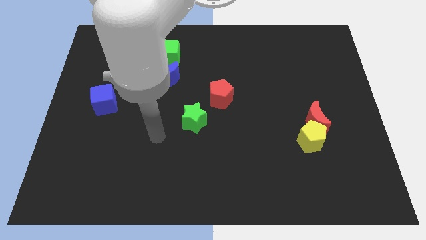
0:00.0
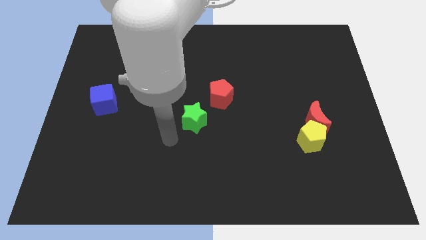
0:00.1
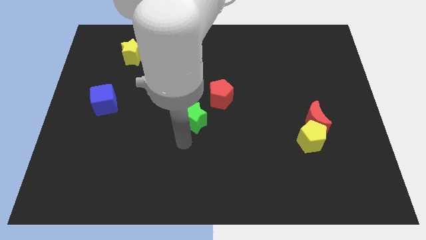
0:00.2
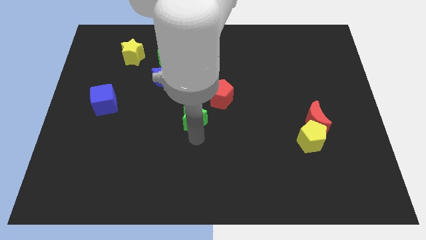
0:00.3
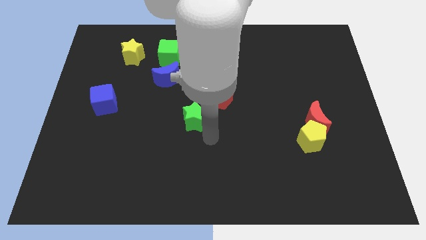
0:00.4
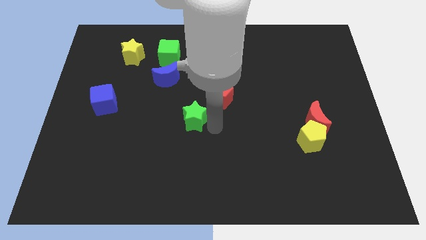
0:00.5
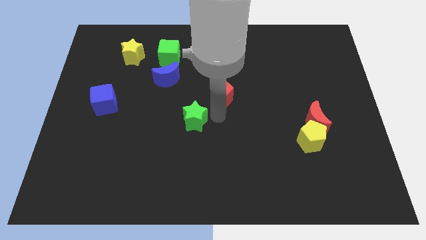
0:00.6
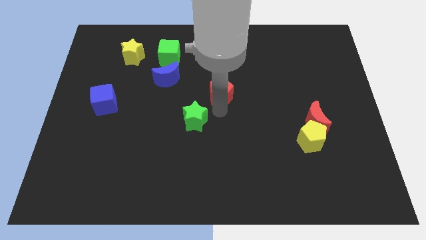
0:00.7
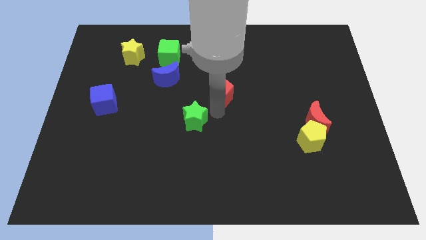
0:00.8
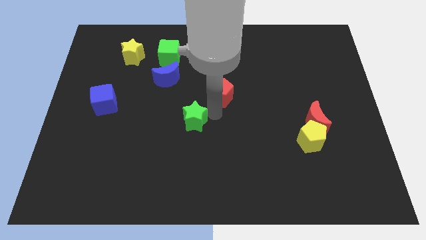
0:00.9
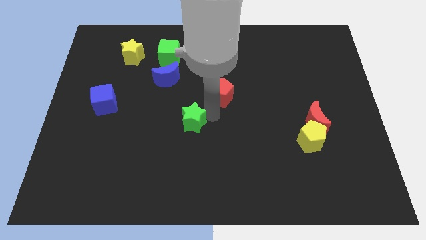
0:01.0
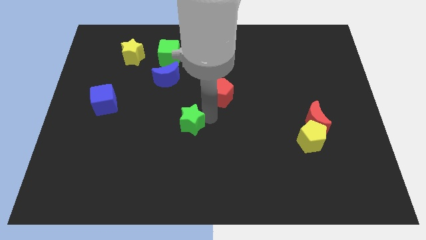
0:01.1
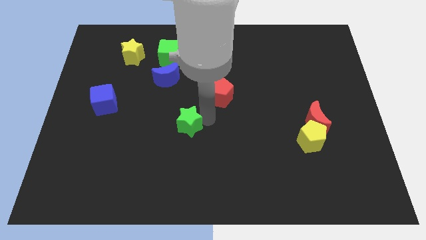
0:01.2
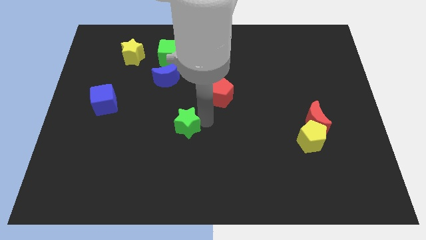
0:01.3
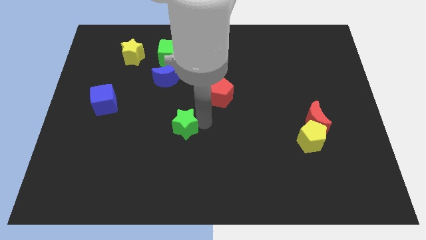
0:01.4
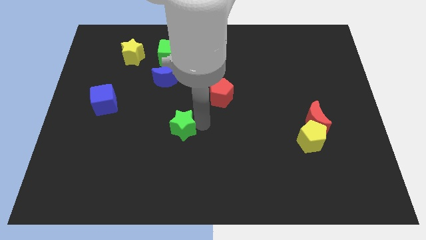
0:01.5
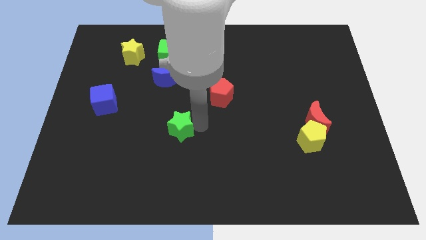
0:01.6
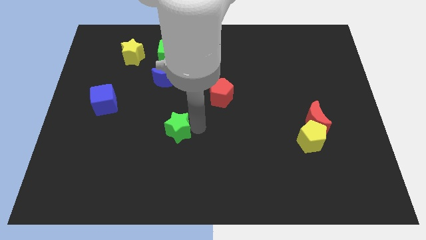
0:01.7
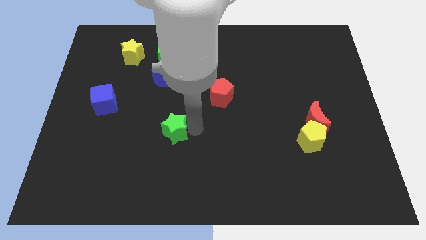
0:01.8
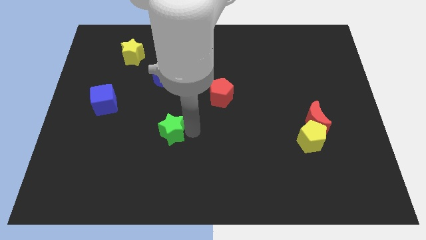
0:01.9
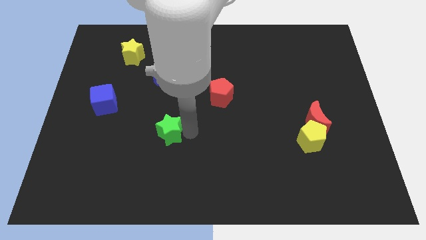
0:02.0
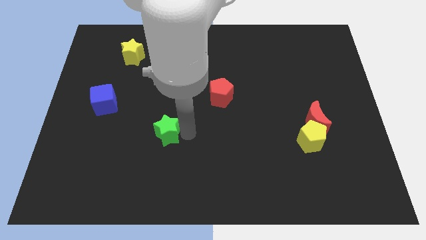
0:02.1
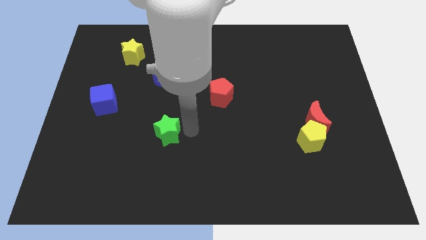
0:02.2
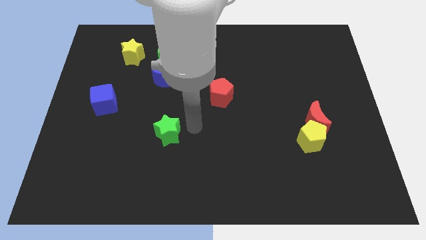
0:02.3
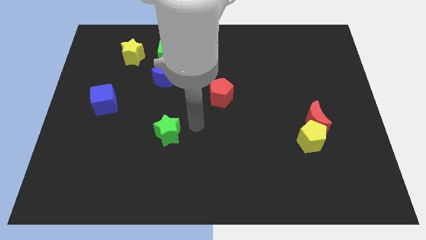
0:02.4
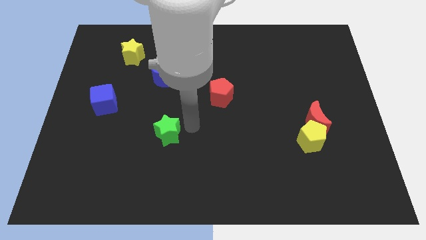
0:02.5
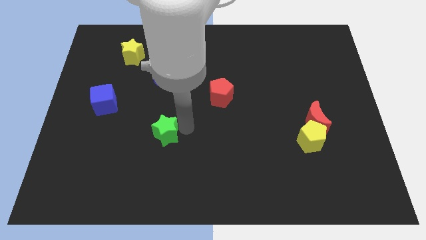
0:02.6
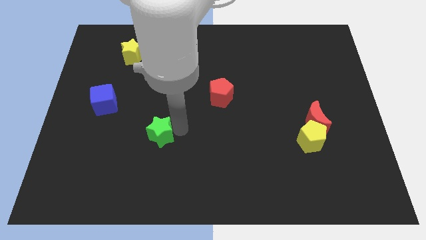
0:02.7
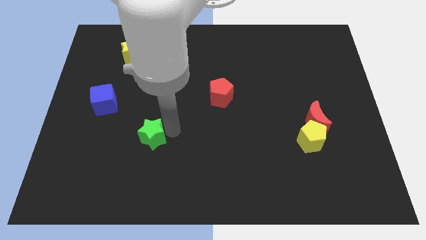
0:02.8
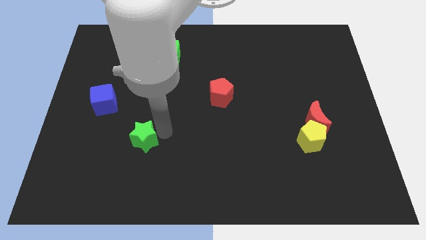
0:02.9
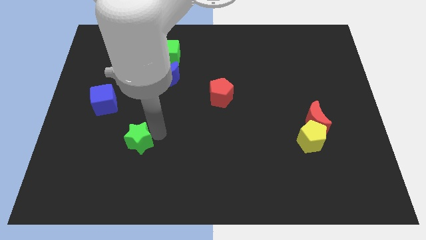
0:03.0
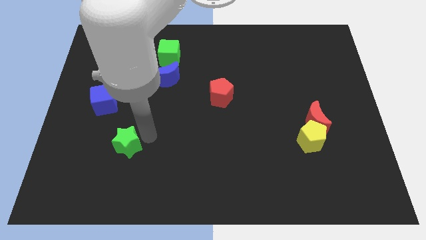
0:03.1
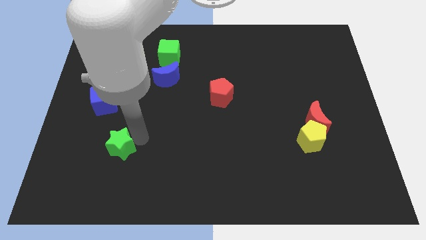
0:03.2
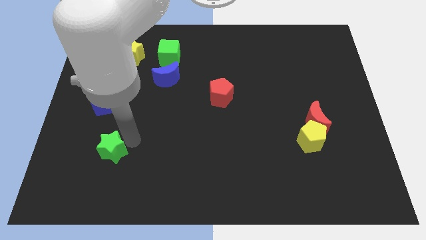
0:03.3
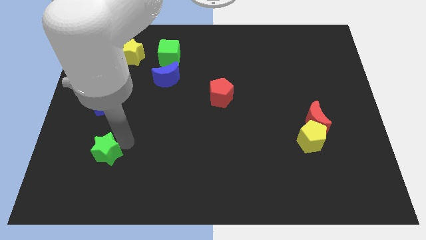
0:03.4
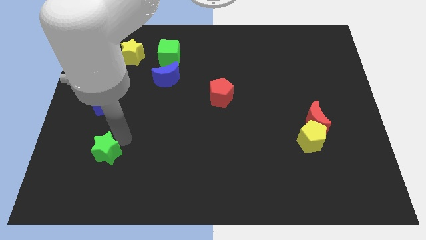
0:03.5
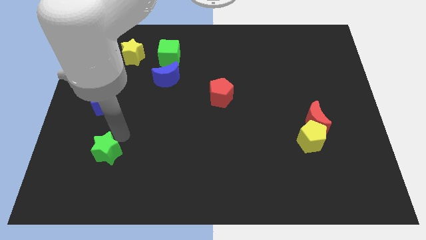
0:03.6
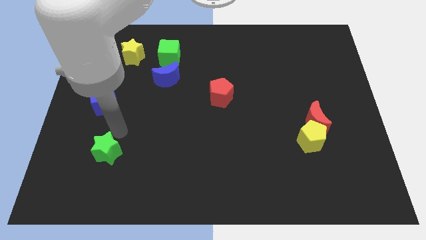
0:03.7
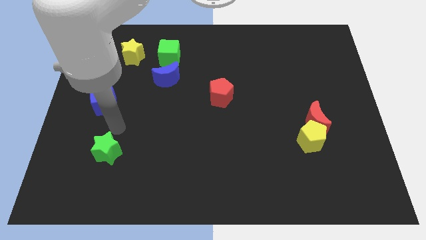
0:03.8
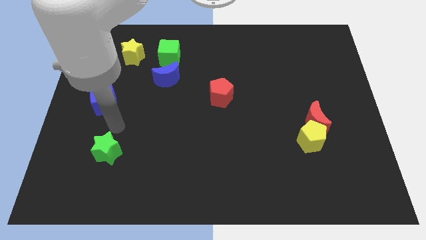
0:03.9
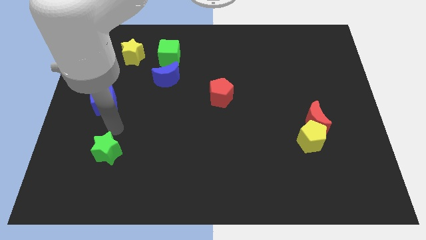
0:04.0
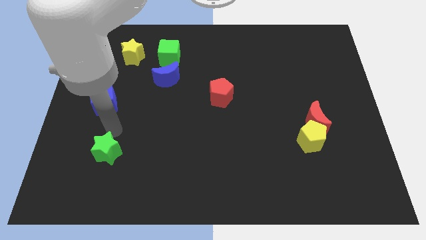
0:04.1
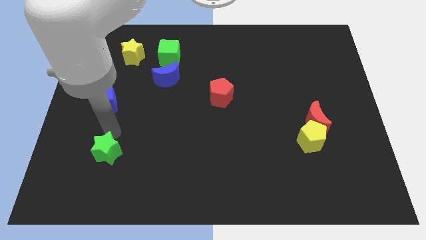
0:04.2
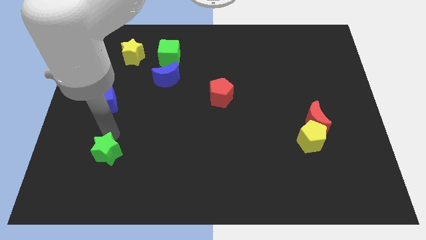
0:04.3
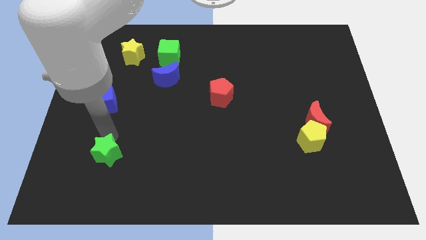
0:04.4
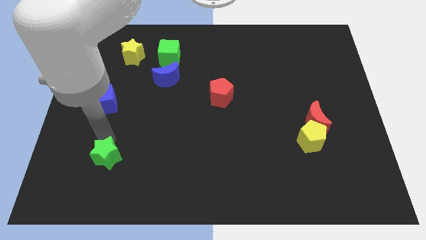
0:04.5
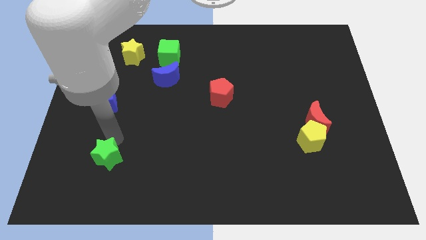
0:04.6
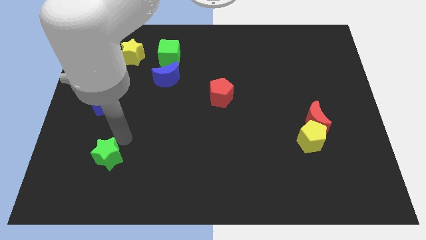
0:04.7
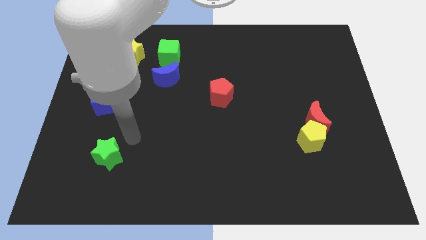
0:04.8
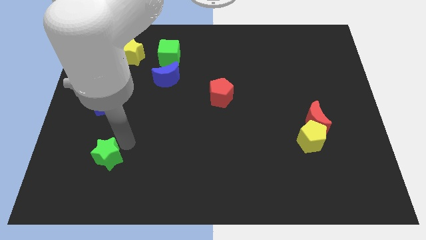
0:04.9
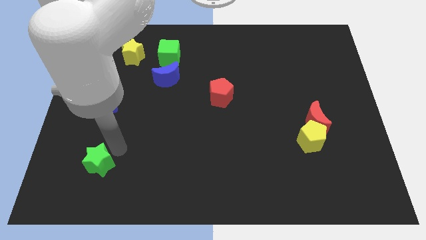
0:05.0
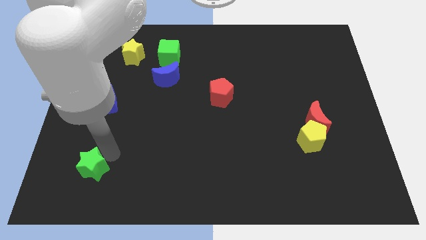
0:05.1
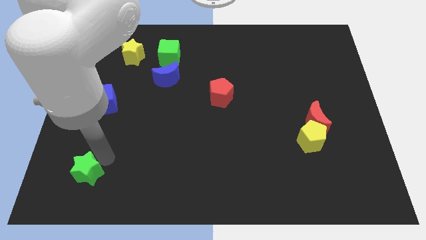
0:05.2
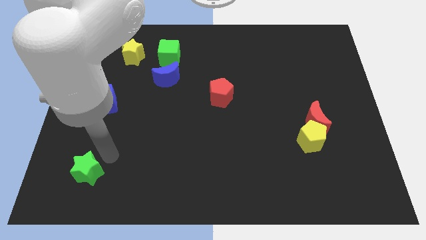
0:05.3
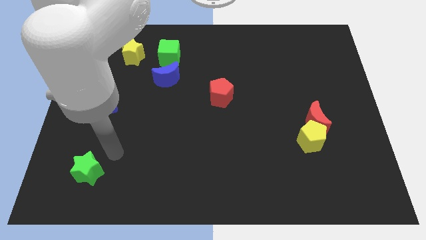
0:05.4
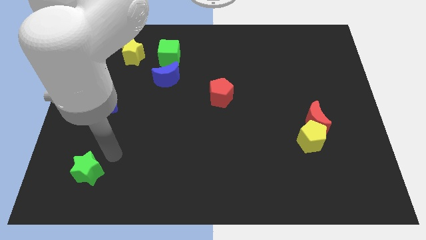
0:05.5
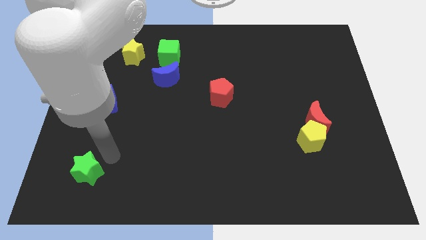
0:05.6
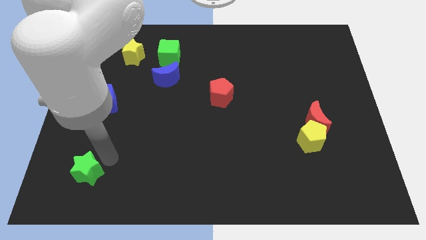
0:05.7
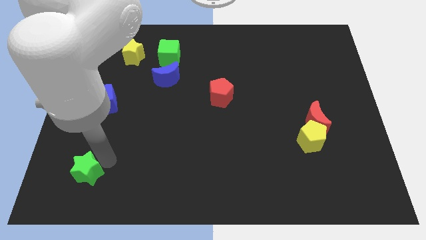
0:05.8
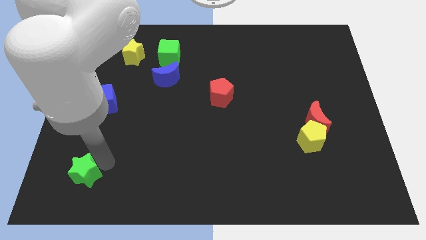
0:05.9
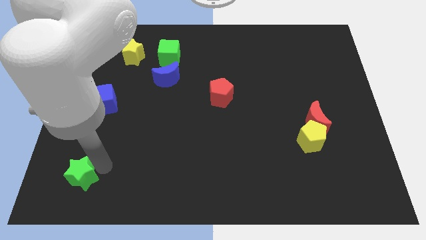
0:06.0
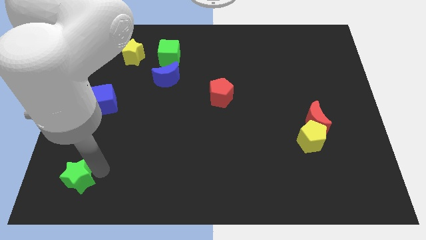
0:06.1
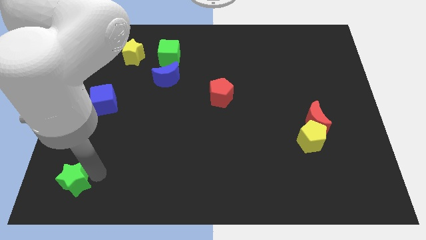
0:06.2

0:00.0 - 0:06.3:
move the green star to the bottom left of the board
